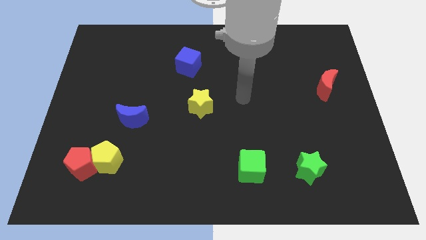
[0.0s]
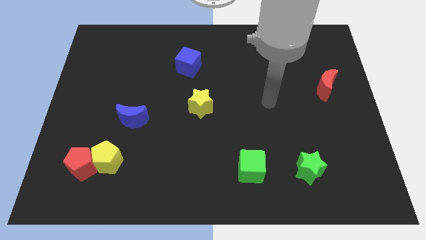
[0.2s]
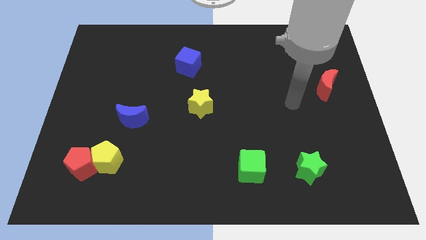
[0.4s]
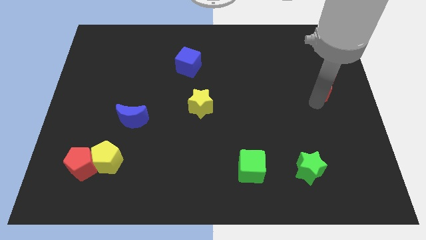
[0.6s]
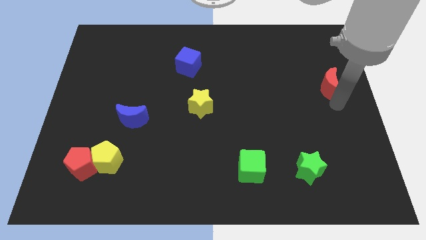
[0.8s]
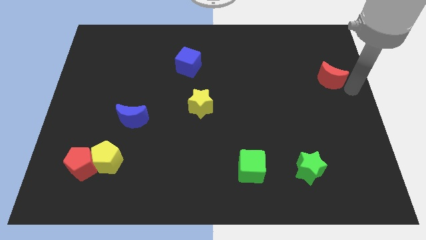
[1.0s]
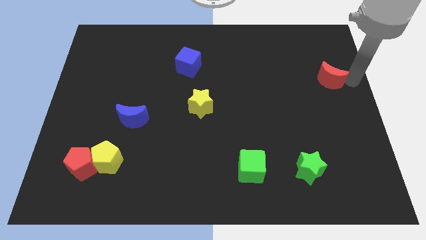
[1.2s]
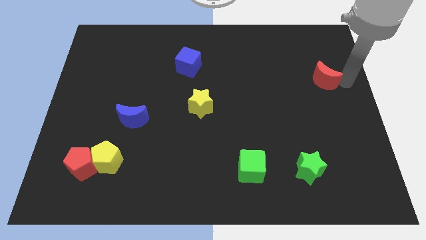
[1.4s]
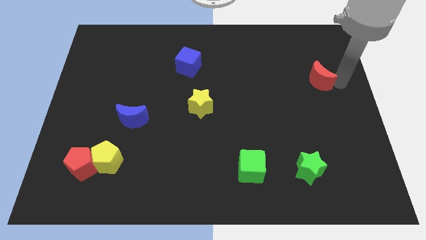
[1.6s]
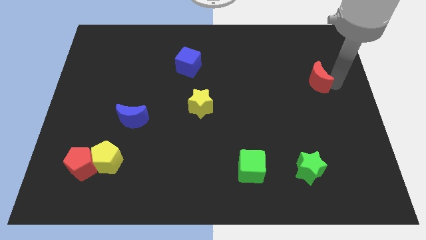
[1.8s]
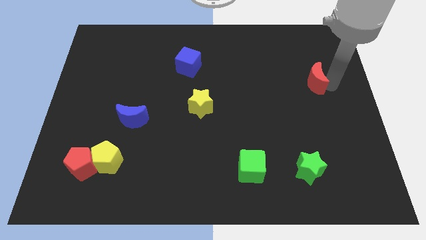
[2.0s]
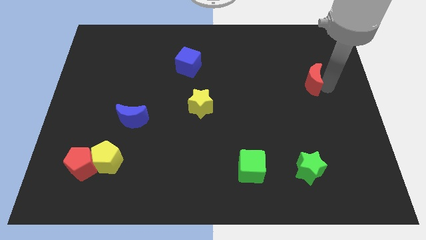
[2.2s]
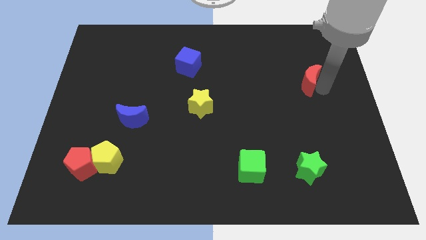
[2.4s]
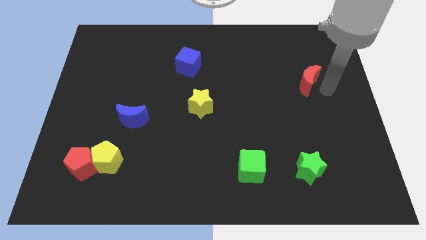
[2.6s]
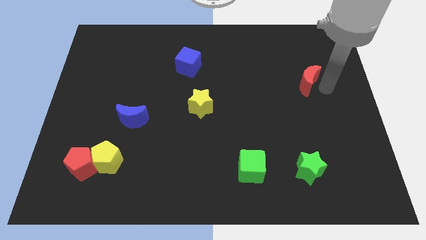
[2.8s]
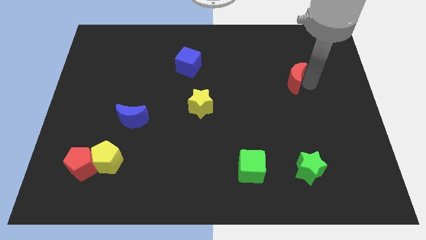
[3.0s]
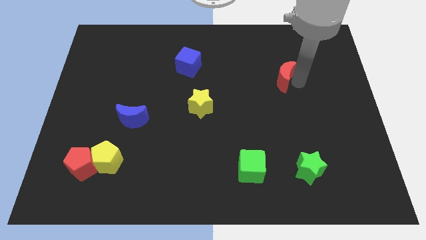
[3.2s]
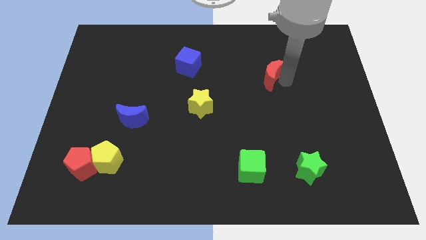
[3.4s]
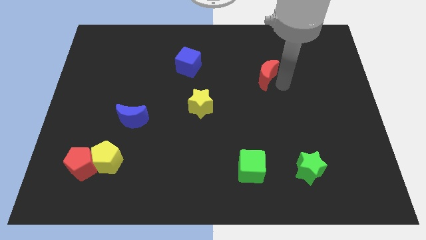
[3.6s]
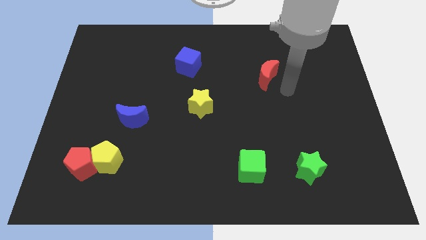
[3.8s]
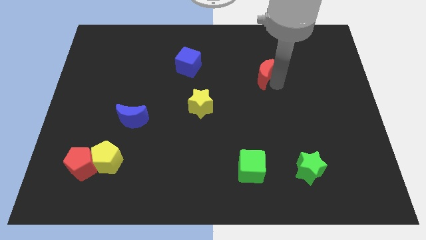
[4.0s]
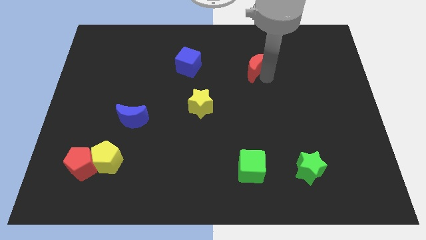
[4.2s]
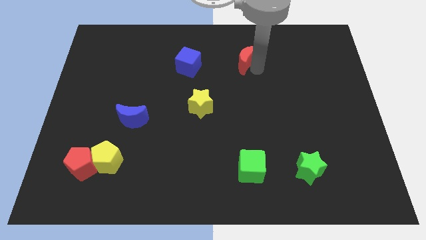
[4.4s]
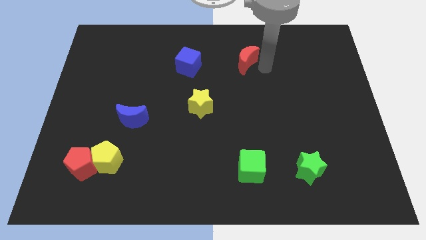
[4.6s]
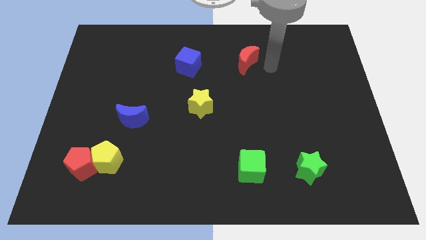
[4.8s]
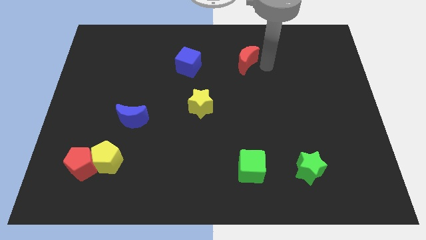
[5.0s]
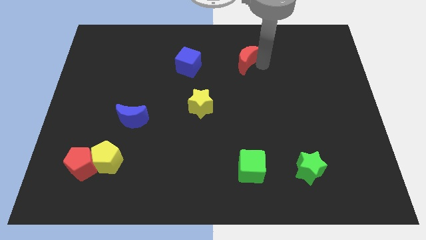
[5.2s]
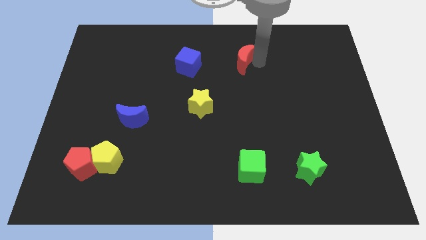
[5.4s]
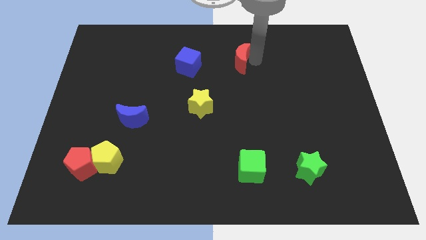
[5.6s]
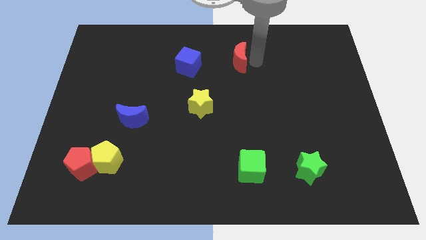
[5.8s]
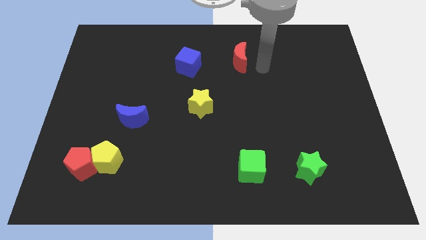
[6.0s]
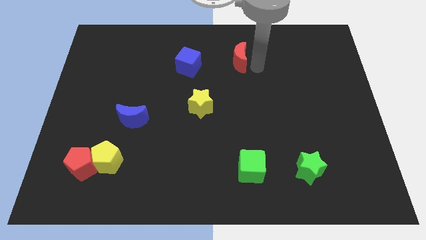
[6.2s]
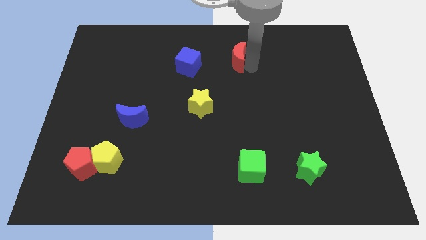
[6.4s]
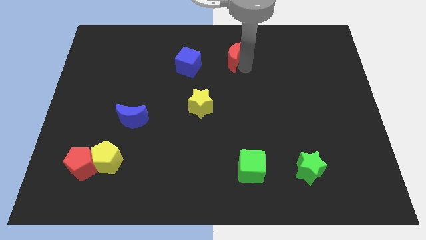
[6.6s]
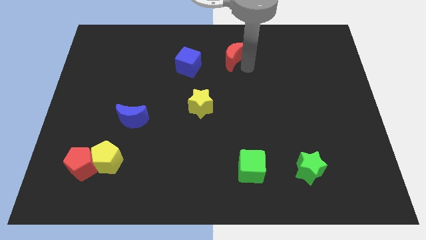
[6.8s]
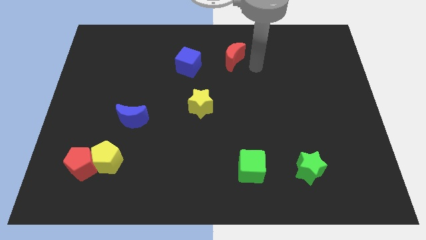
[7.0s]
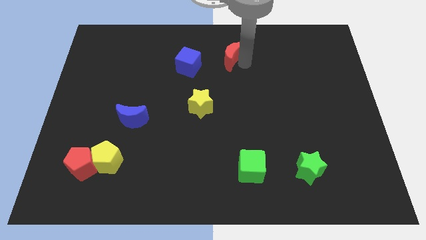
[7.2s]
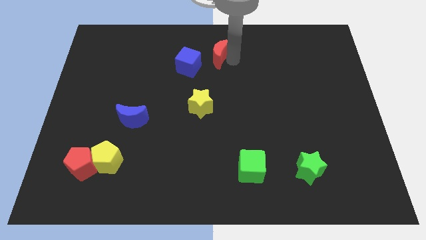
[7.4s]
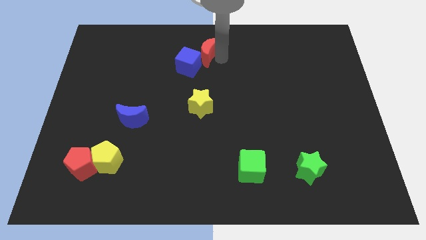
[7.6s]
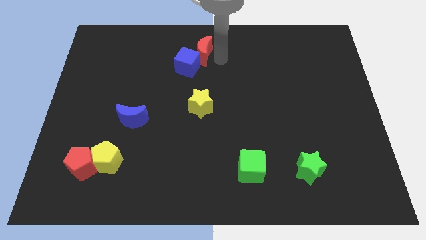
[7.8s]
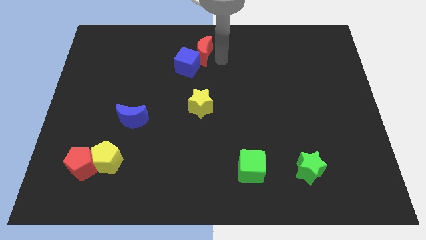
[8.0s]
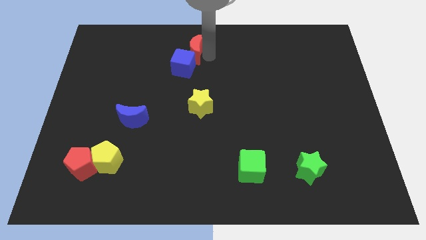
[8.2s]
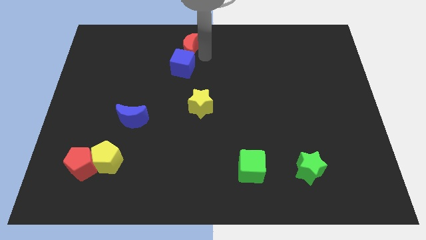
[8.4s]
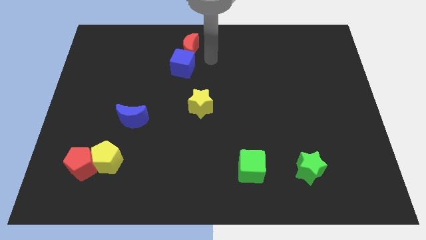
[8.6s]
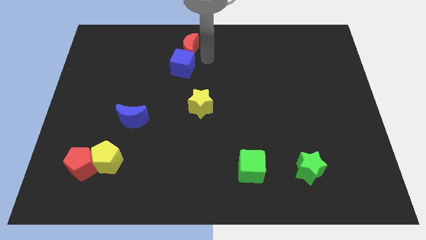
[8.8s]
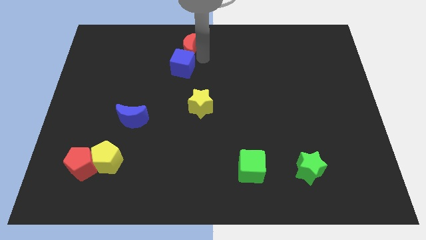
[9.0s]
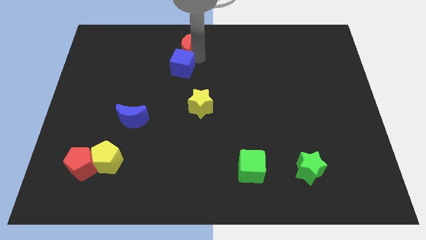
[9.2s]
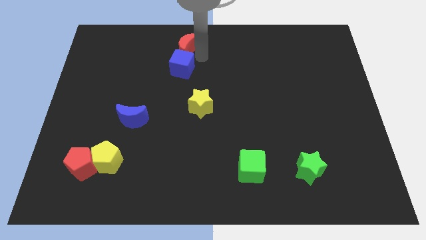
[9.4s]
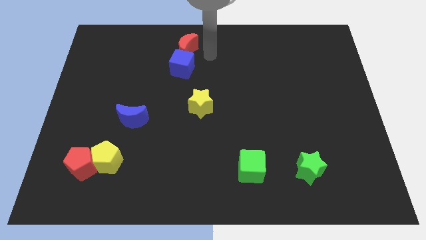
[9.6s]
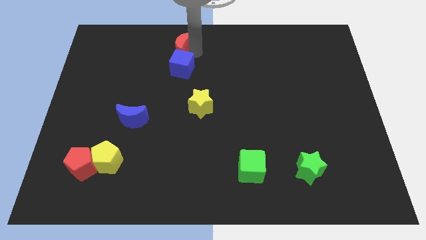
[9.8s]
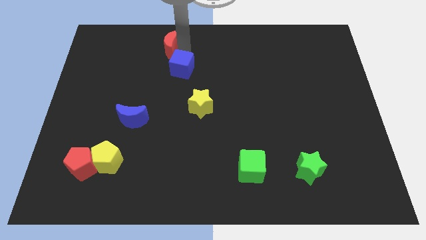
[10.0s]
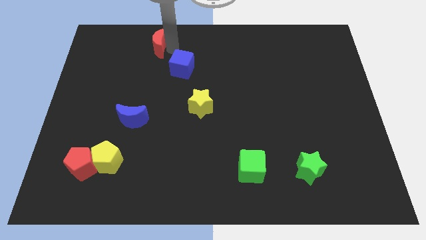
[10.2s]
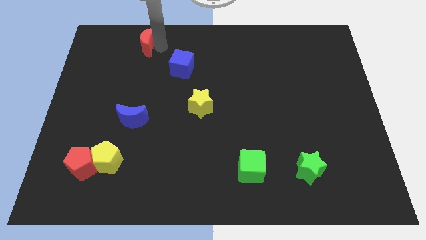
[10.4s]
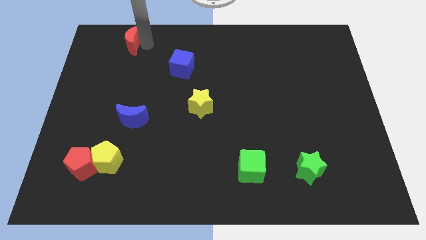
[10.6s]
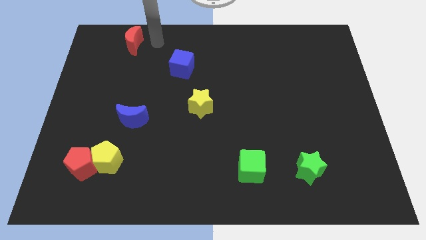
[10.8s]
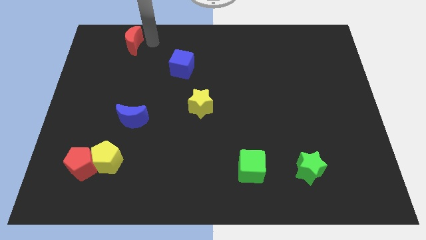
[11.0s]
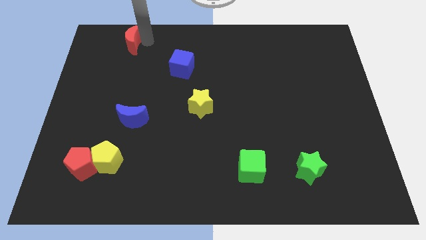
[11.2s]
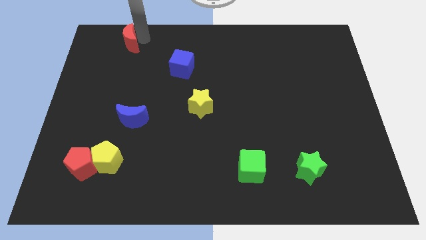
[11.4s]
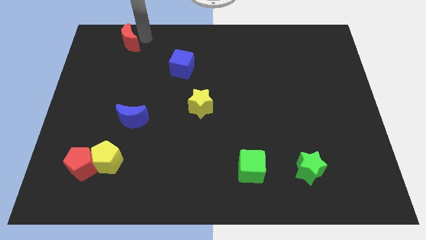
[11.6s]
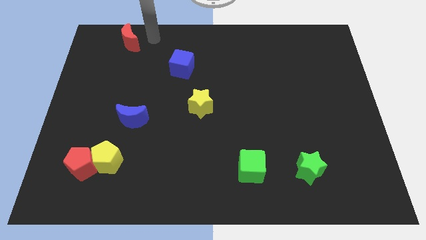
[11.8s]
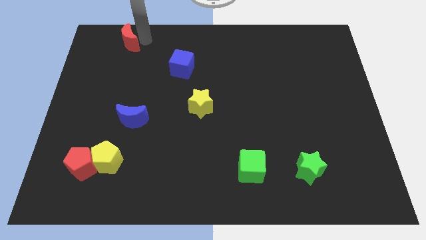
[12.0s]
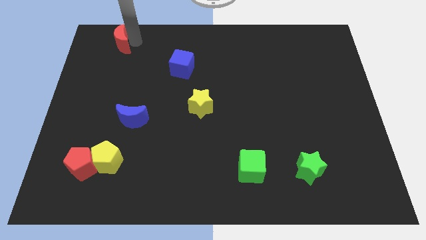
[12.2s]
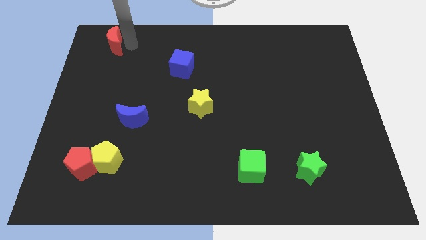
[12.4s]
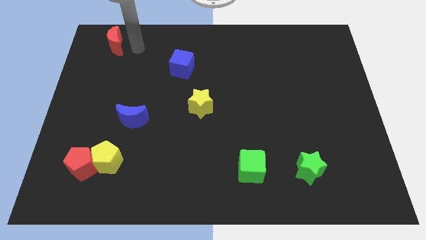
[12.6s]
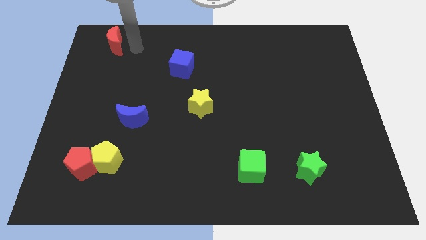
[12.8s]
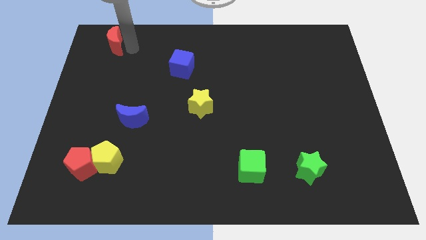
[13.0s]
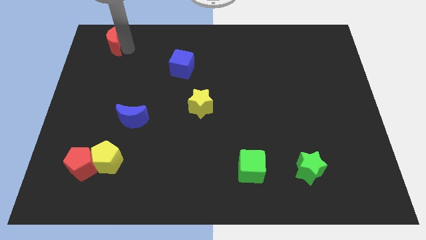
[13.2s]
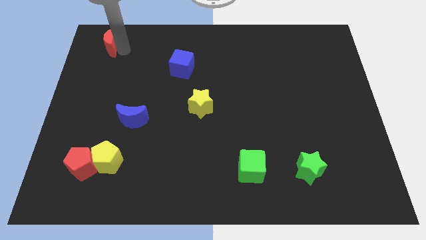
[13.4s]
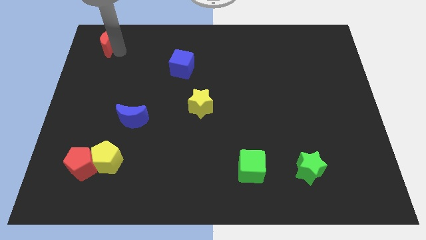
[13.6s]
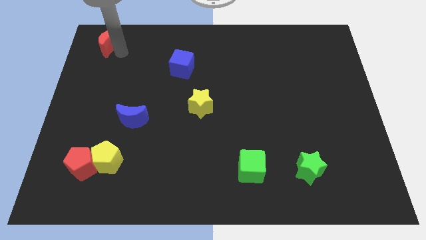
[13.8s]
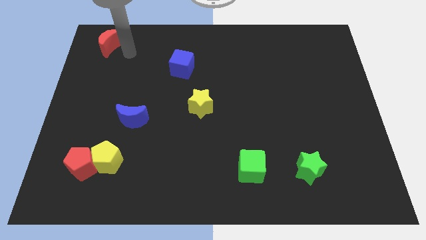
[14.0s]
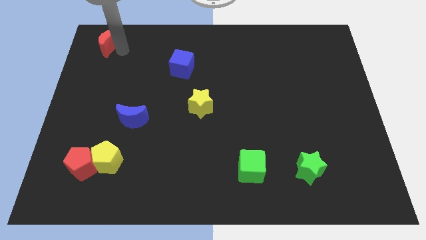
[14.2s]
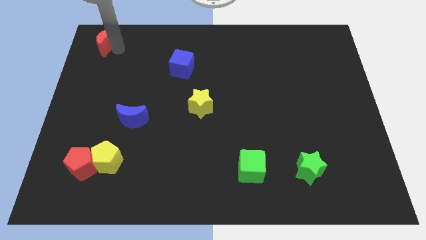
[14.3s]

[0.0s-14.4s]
move the red moon to the top left
